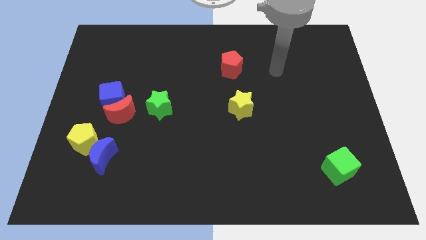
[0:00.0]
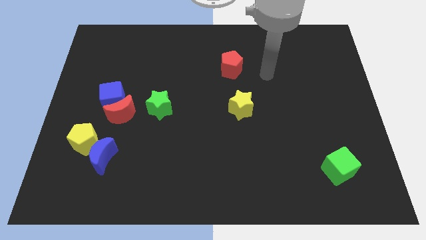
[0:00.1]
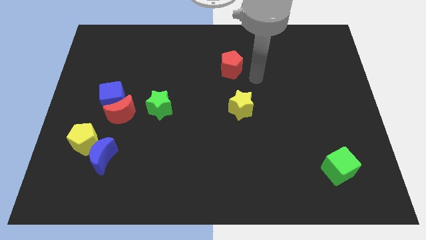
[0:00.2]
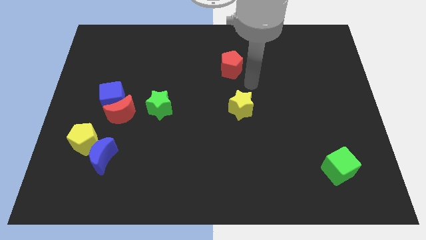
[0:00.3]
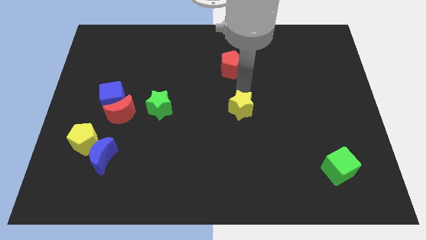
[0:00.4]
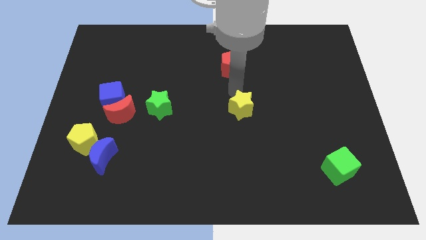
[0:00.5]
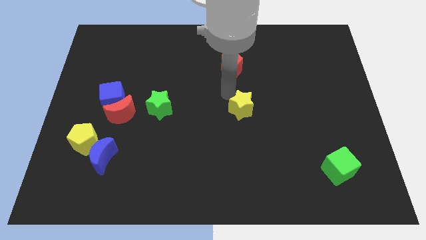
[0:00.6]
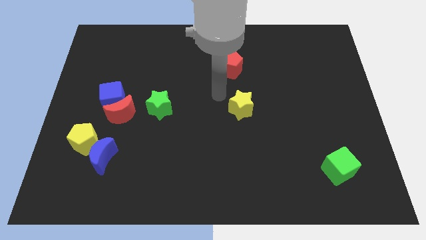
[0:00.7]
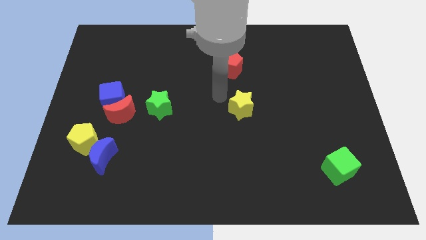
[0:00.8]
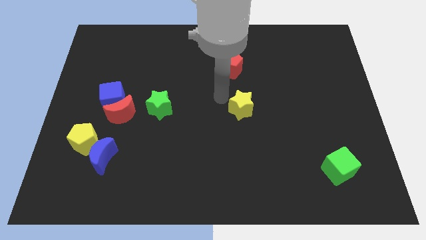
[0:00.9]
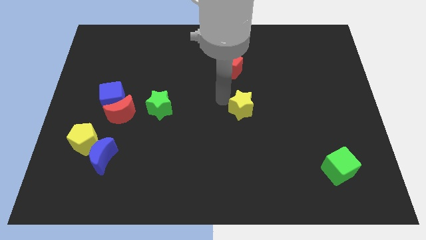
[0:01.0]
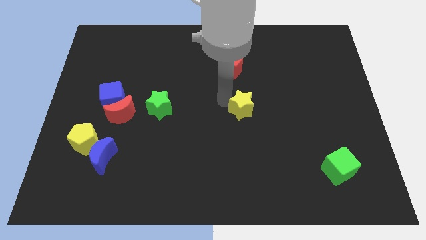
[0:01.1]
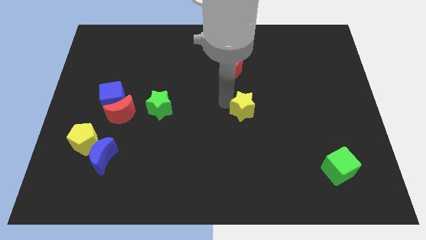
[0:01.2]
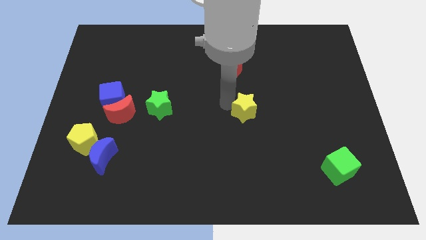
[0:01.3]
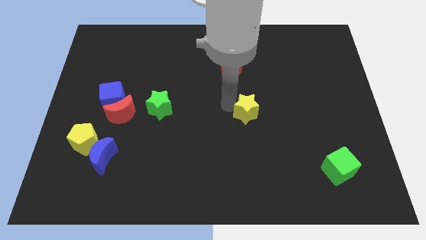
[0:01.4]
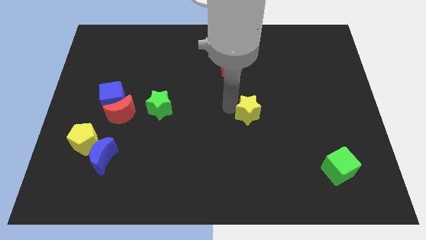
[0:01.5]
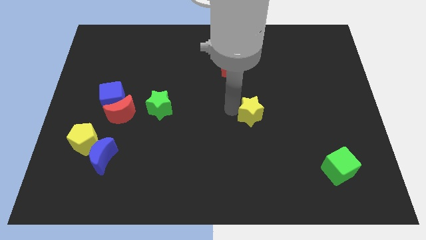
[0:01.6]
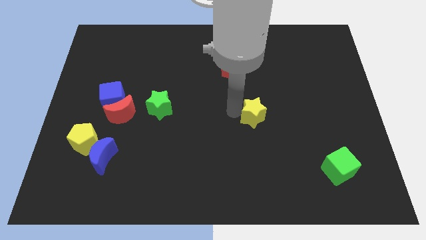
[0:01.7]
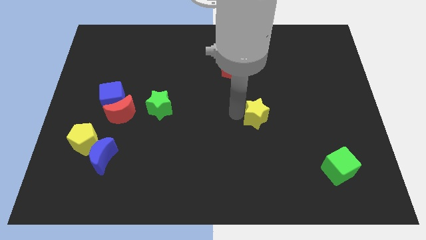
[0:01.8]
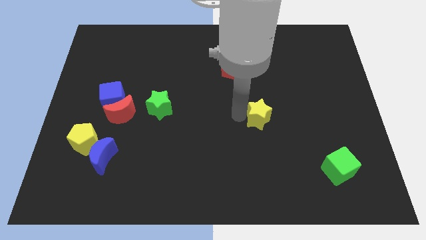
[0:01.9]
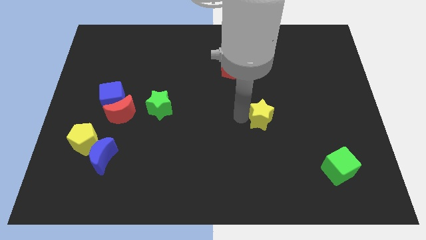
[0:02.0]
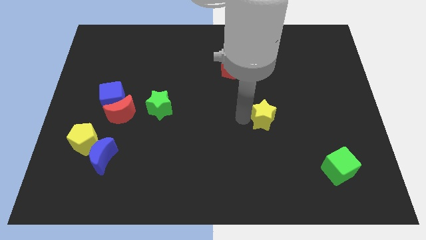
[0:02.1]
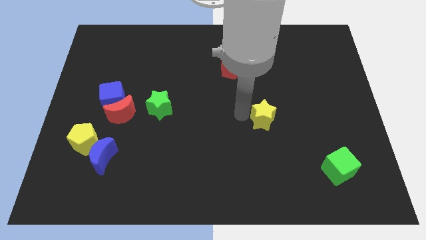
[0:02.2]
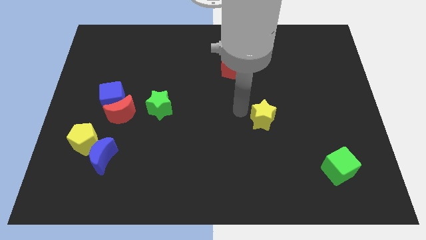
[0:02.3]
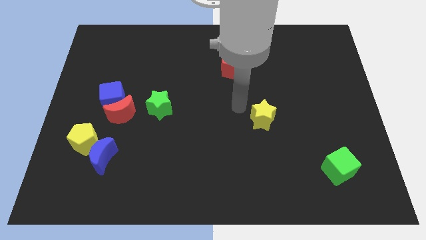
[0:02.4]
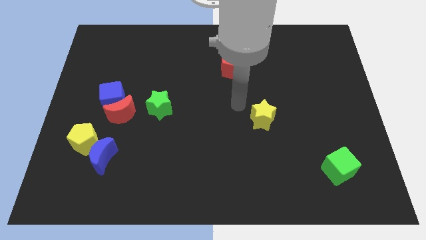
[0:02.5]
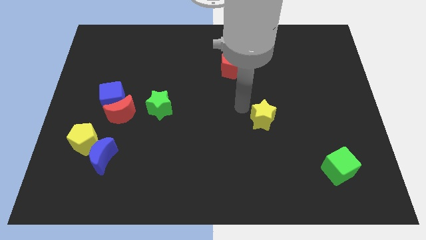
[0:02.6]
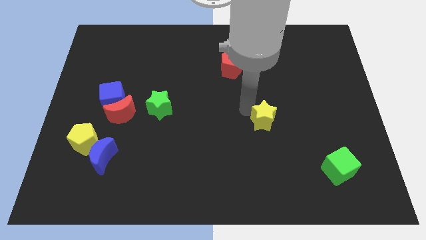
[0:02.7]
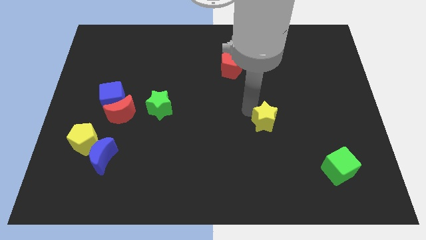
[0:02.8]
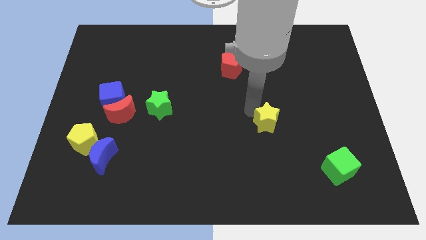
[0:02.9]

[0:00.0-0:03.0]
push the yellow star a little bit diagonally down and to the right

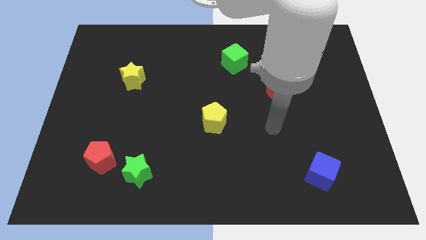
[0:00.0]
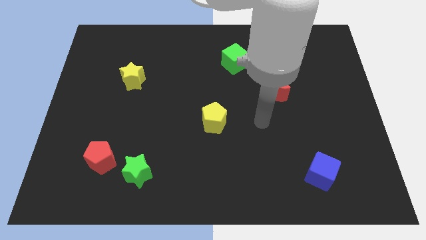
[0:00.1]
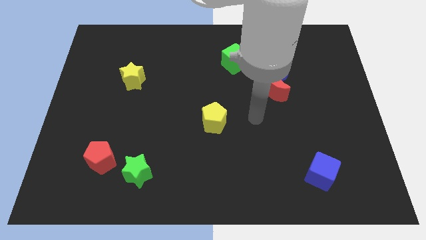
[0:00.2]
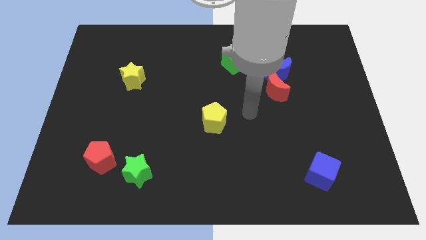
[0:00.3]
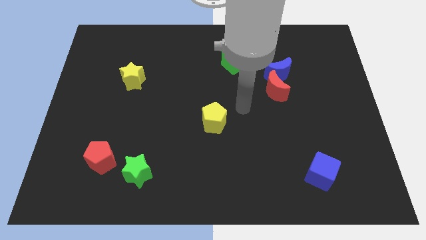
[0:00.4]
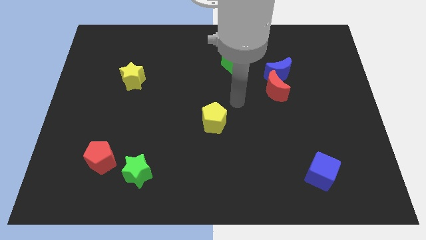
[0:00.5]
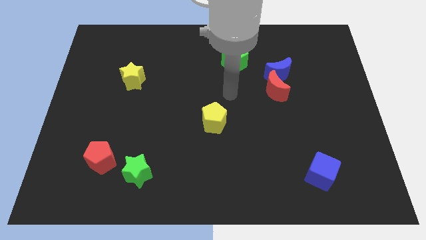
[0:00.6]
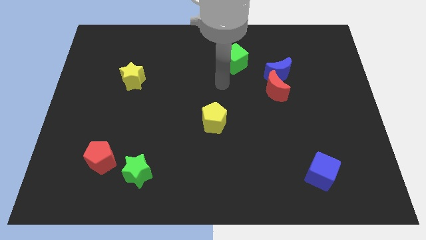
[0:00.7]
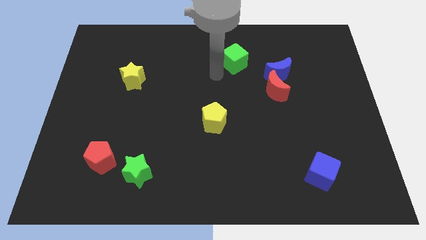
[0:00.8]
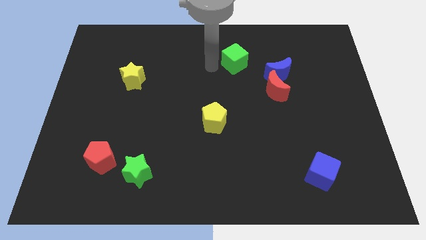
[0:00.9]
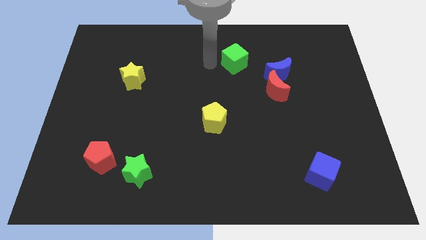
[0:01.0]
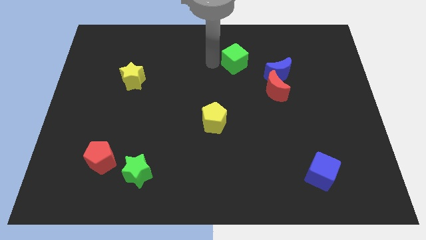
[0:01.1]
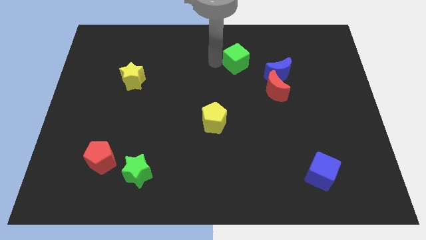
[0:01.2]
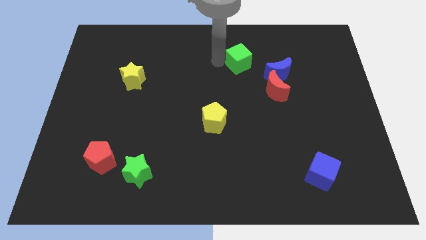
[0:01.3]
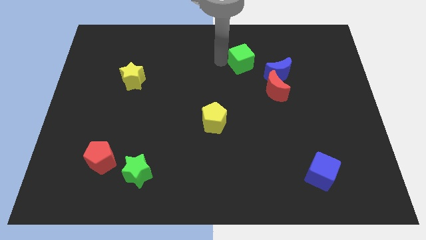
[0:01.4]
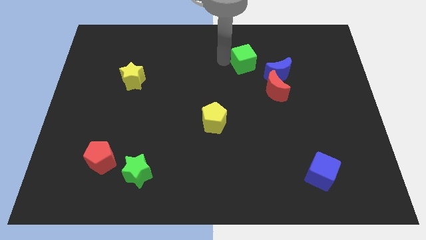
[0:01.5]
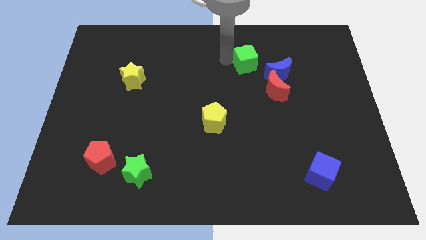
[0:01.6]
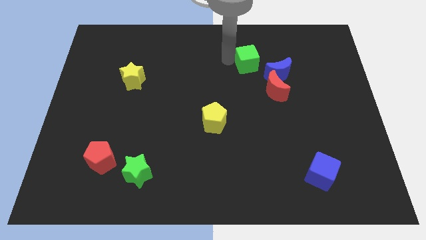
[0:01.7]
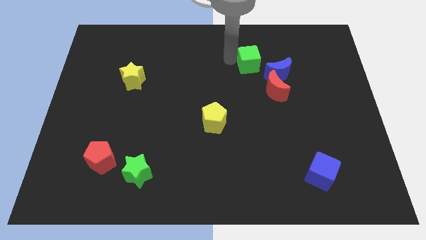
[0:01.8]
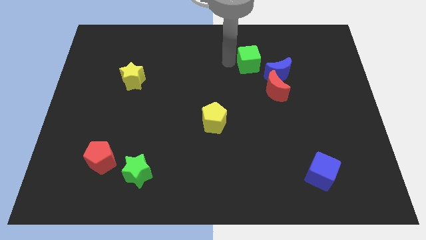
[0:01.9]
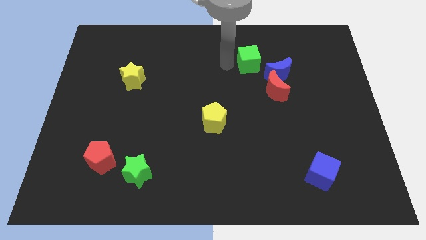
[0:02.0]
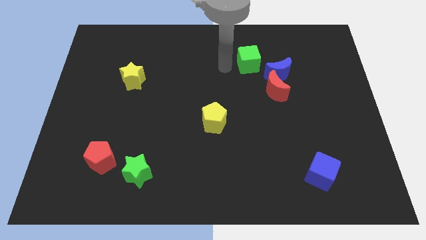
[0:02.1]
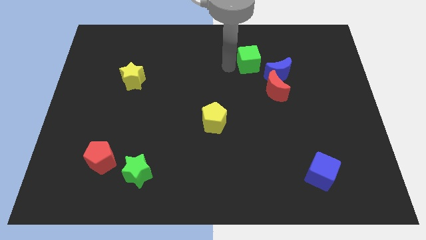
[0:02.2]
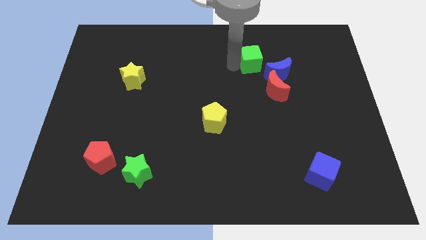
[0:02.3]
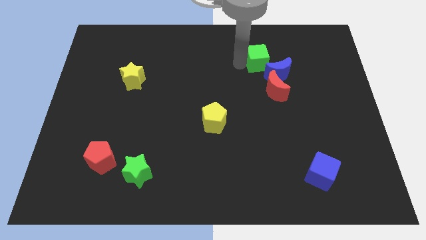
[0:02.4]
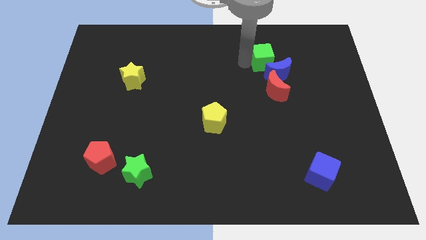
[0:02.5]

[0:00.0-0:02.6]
move the green cube to the right slightly

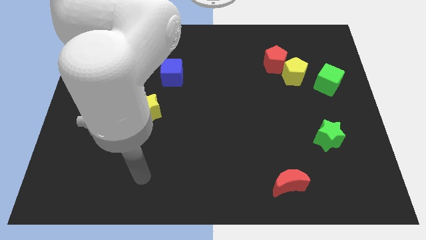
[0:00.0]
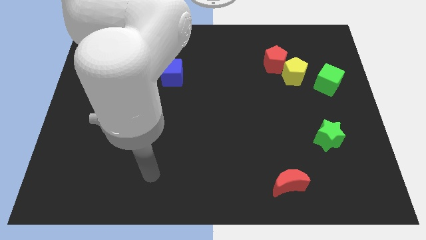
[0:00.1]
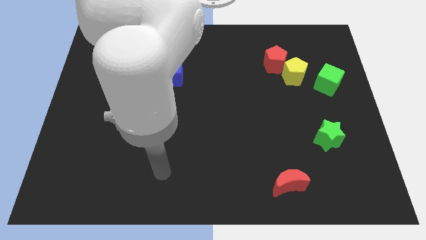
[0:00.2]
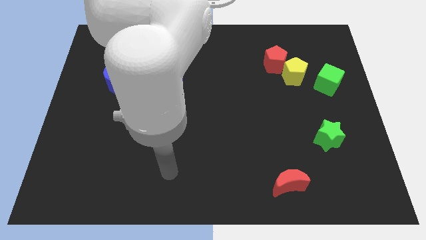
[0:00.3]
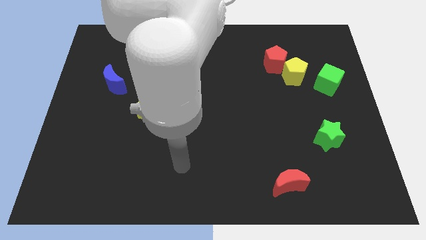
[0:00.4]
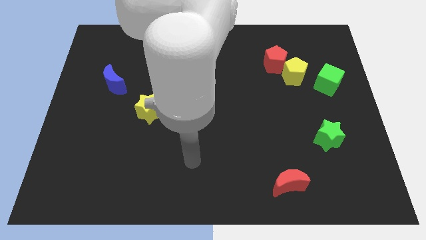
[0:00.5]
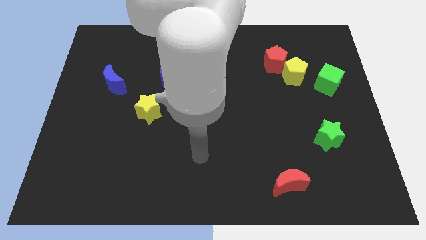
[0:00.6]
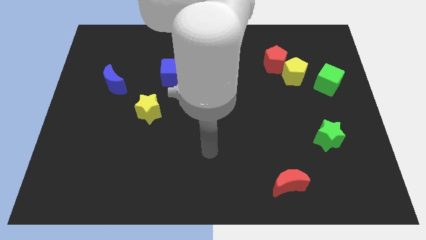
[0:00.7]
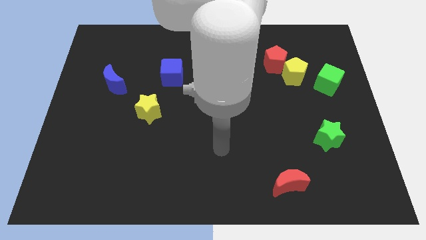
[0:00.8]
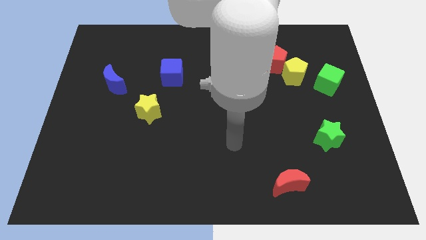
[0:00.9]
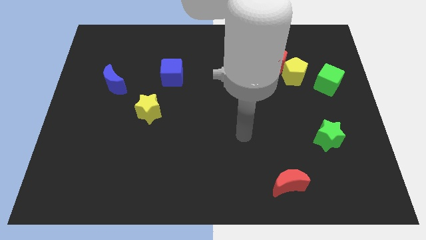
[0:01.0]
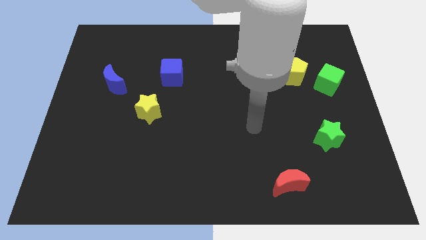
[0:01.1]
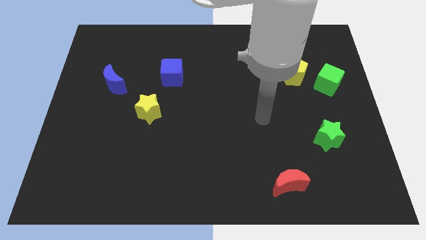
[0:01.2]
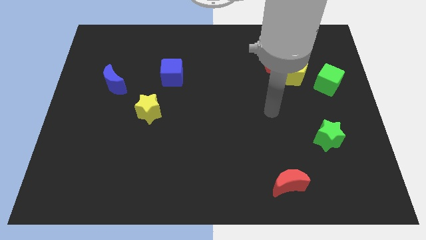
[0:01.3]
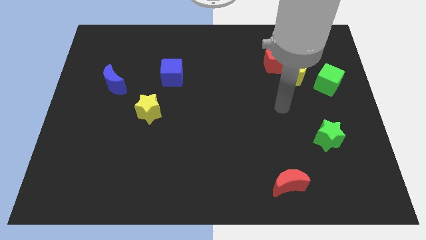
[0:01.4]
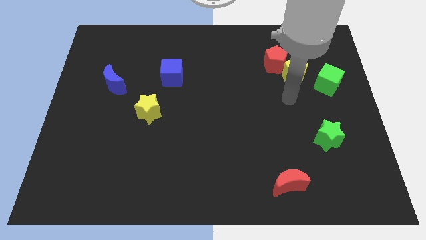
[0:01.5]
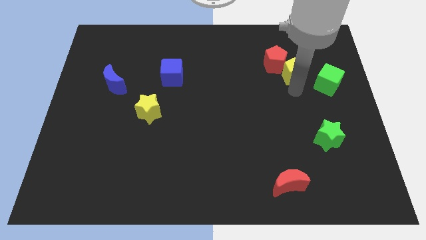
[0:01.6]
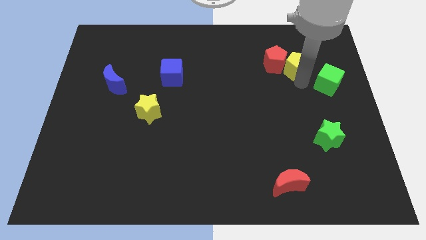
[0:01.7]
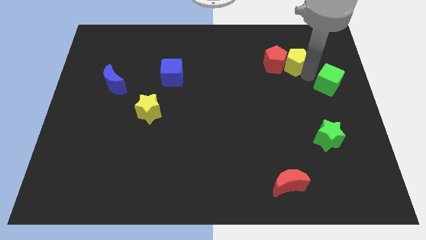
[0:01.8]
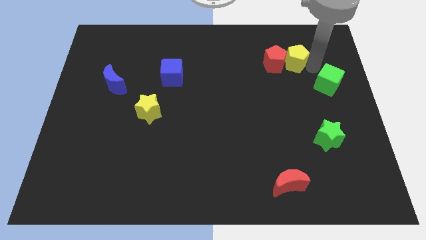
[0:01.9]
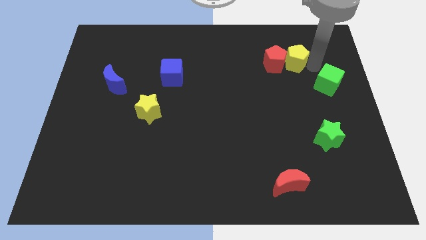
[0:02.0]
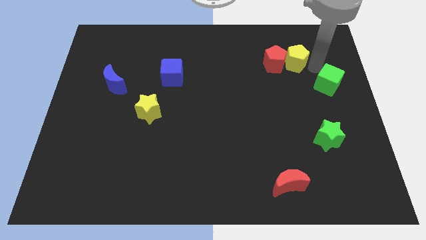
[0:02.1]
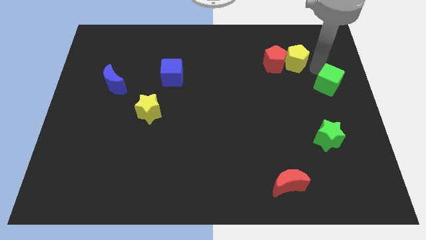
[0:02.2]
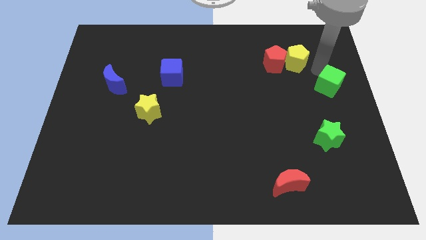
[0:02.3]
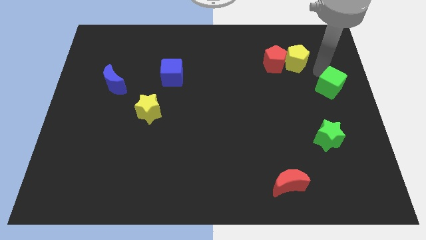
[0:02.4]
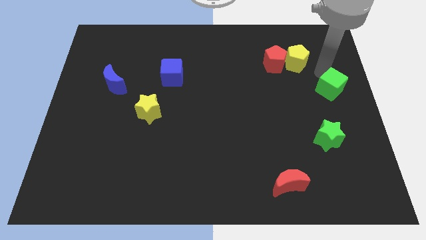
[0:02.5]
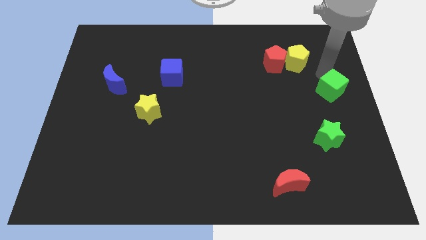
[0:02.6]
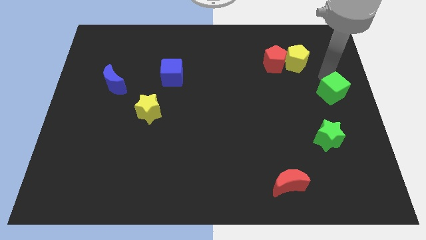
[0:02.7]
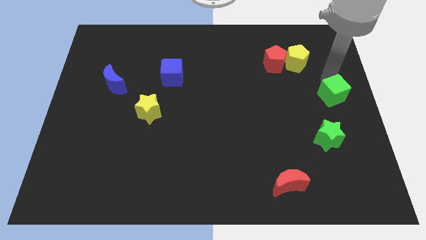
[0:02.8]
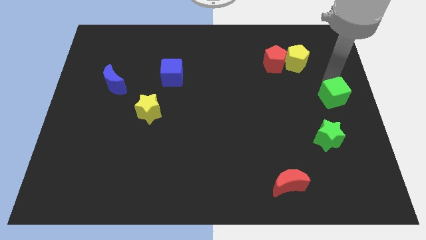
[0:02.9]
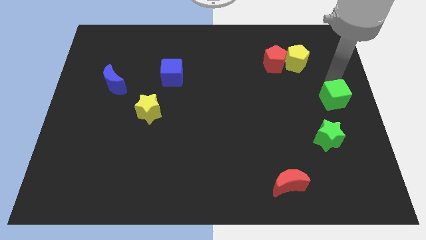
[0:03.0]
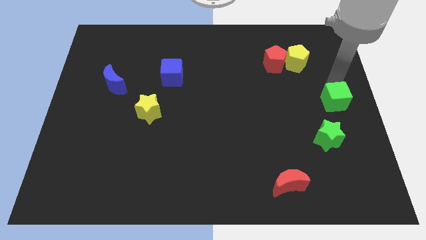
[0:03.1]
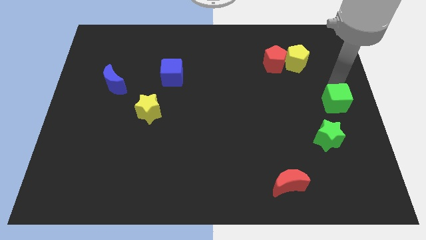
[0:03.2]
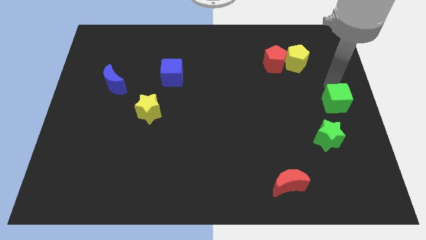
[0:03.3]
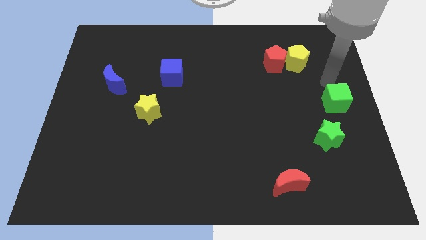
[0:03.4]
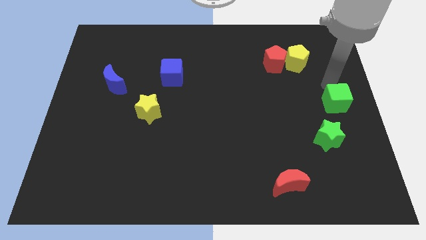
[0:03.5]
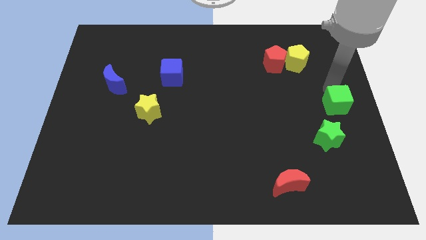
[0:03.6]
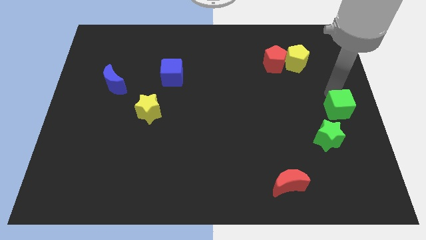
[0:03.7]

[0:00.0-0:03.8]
move the green cube a bit down
